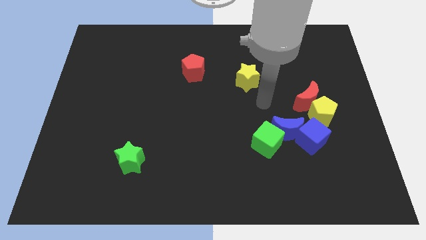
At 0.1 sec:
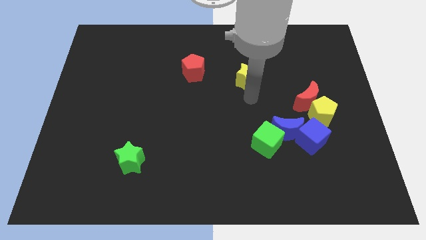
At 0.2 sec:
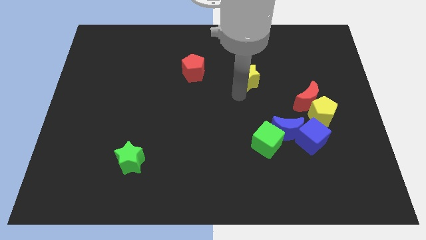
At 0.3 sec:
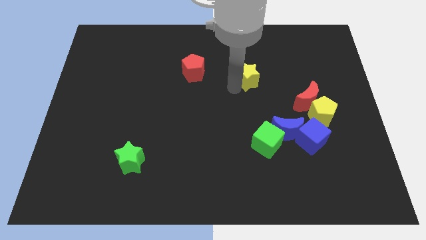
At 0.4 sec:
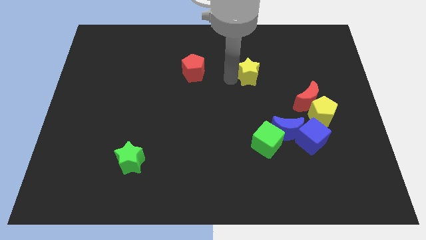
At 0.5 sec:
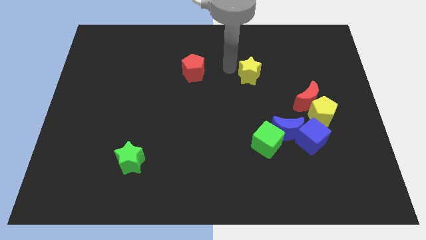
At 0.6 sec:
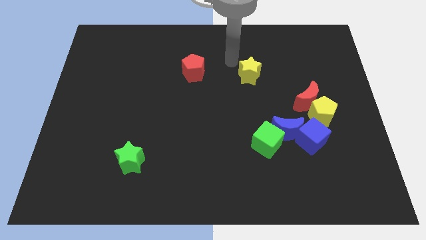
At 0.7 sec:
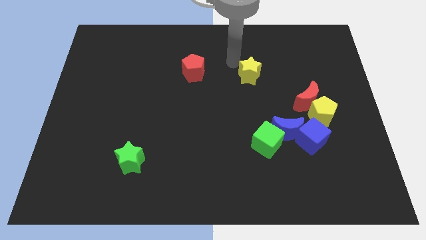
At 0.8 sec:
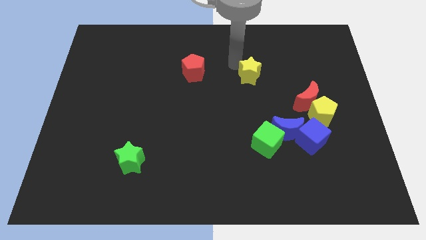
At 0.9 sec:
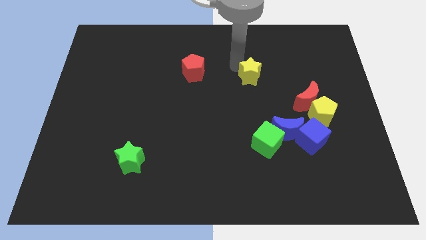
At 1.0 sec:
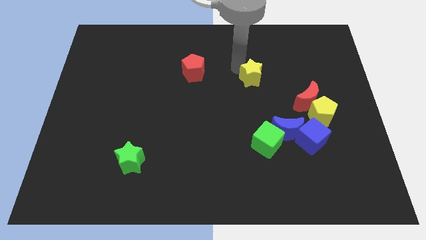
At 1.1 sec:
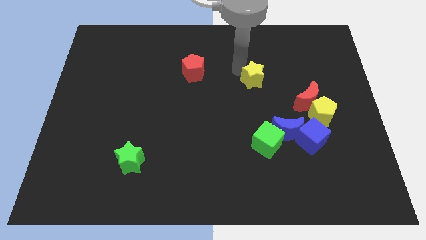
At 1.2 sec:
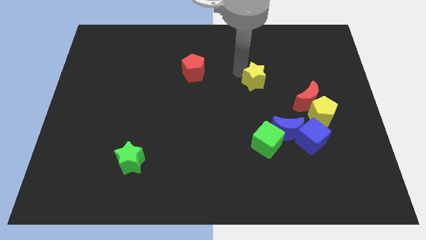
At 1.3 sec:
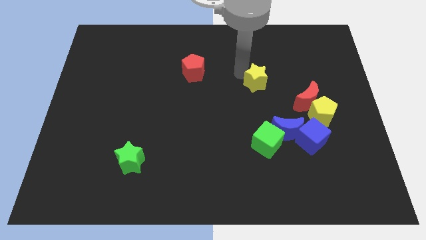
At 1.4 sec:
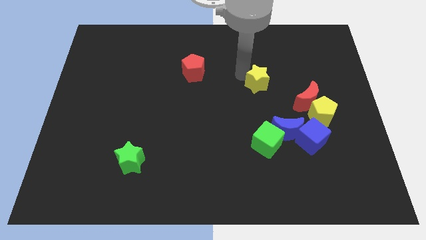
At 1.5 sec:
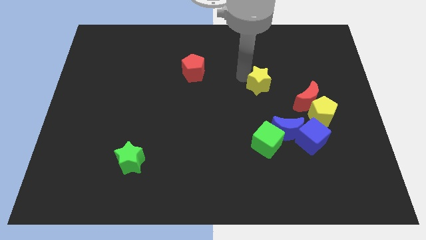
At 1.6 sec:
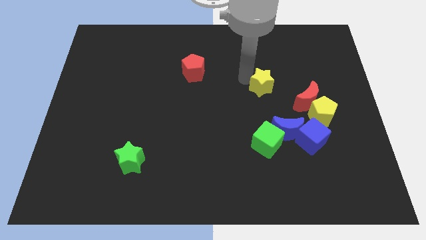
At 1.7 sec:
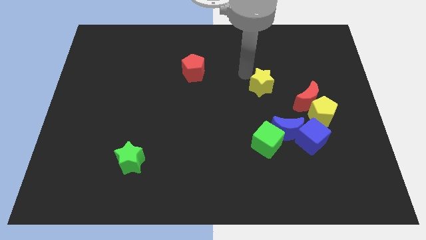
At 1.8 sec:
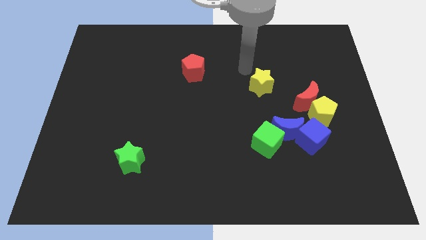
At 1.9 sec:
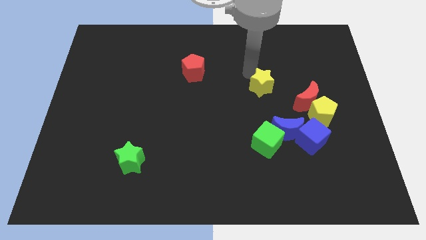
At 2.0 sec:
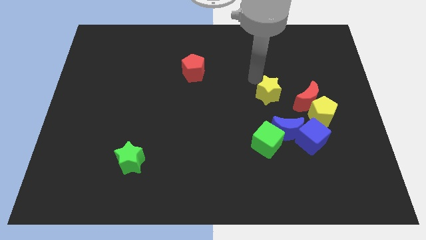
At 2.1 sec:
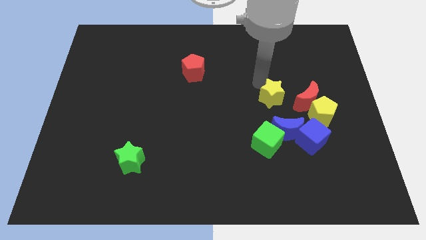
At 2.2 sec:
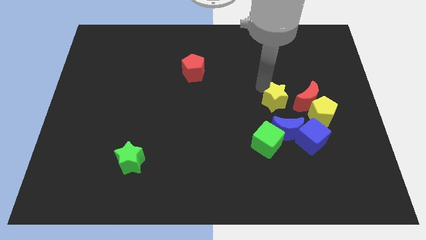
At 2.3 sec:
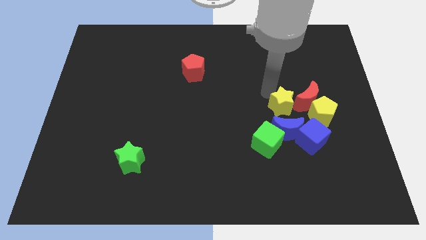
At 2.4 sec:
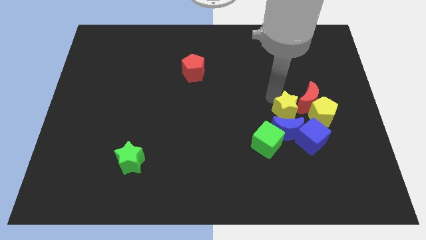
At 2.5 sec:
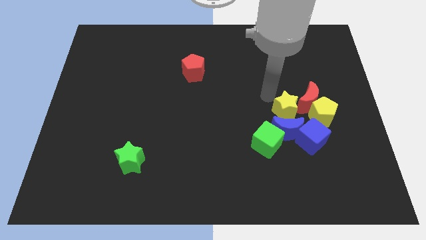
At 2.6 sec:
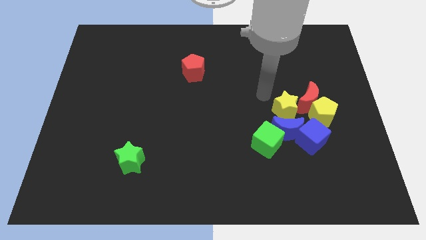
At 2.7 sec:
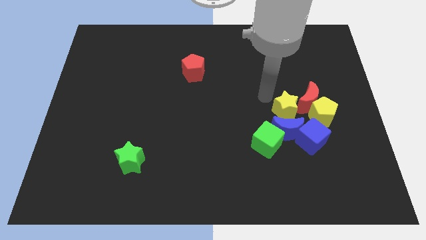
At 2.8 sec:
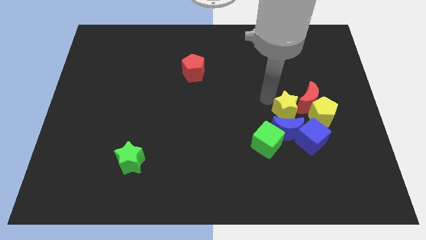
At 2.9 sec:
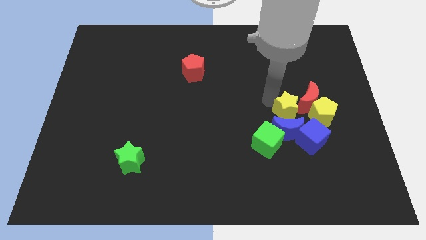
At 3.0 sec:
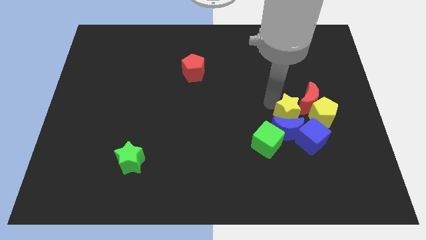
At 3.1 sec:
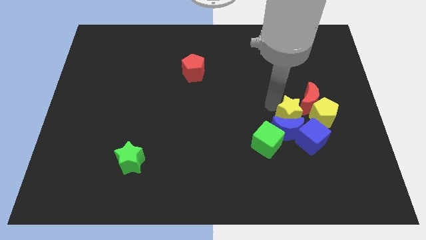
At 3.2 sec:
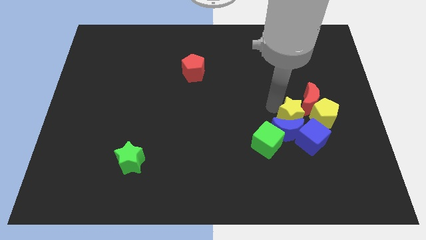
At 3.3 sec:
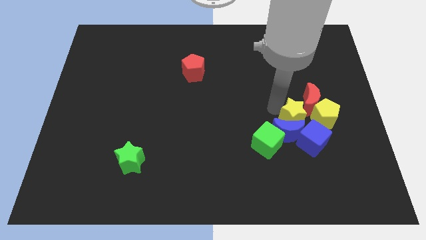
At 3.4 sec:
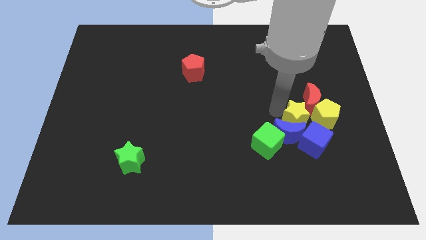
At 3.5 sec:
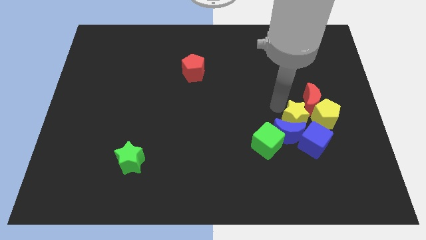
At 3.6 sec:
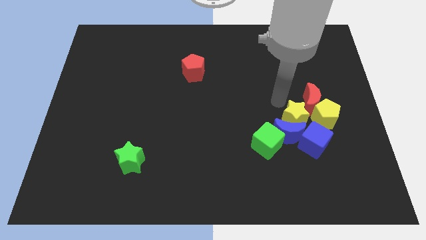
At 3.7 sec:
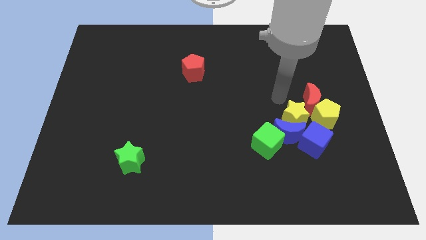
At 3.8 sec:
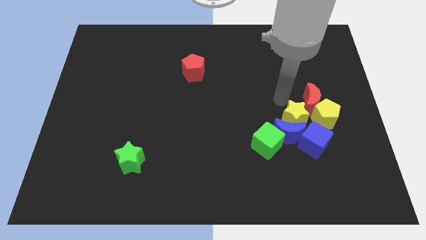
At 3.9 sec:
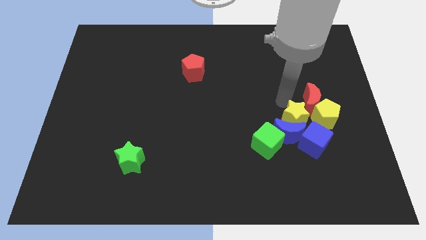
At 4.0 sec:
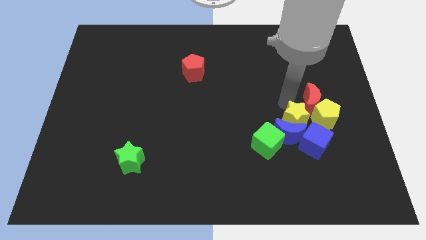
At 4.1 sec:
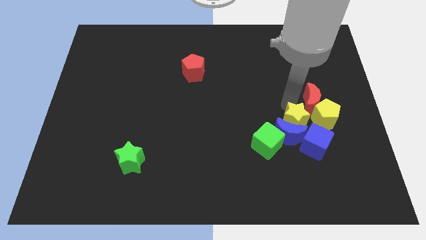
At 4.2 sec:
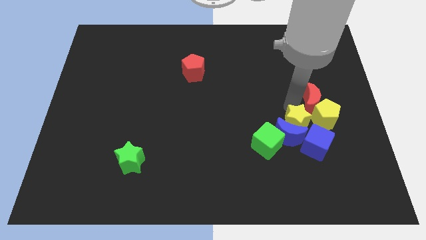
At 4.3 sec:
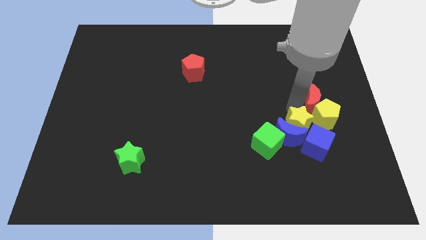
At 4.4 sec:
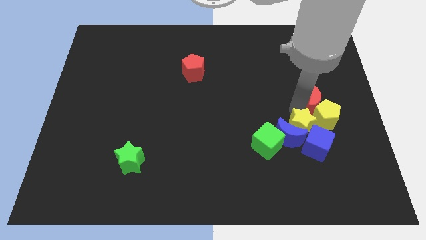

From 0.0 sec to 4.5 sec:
move the yellow star next to the blue cube

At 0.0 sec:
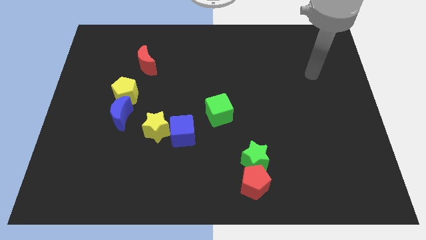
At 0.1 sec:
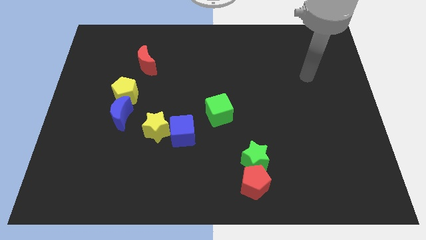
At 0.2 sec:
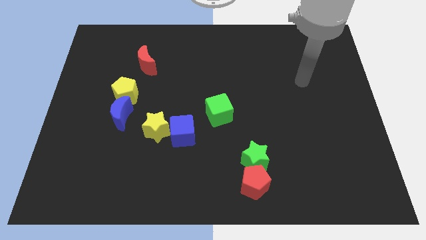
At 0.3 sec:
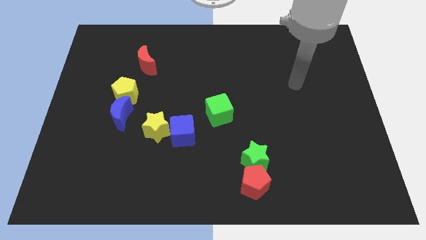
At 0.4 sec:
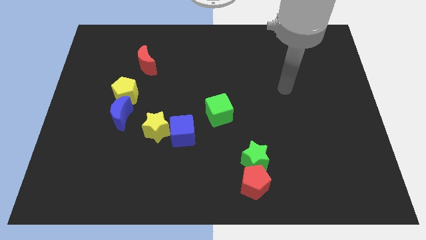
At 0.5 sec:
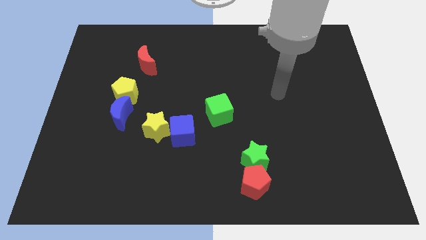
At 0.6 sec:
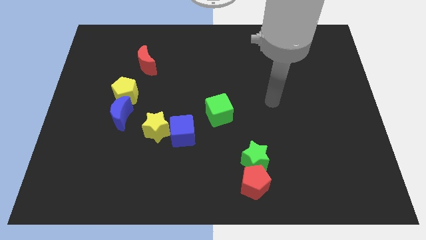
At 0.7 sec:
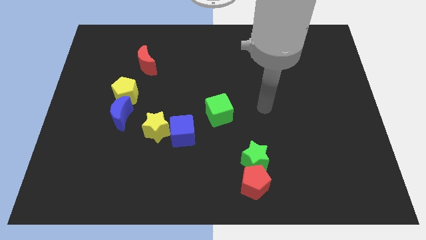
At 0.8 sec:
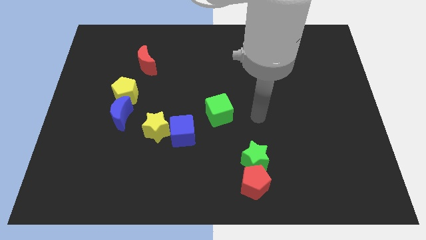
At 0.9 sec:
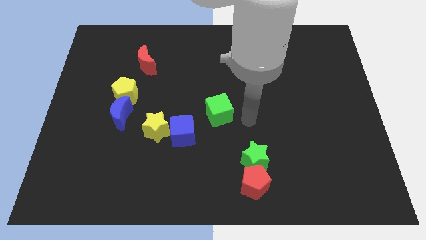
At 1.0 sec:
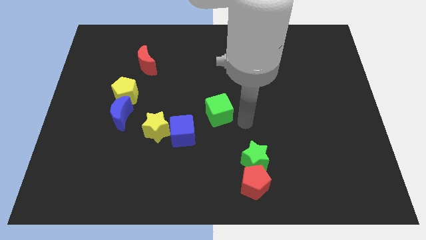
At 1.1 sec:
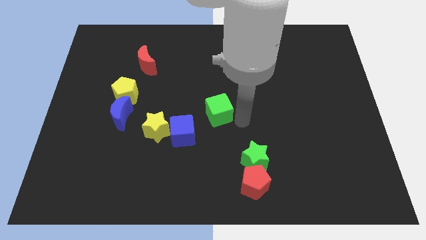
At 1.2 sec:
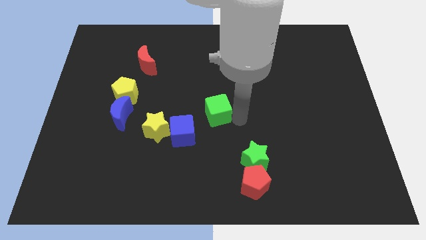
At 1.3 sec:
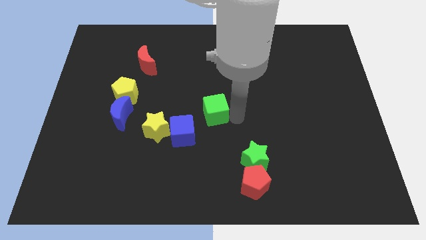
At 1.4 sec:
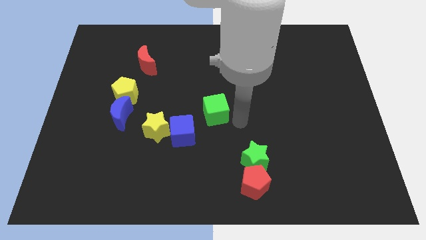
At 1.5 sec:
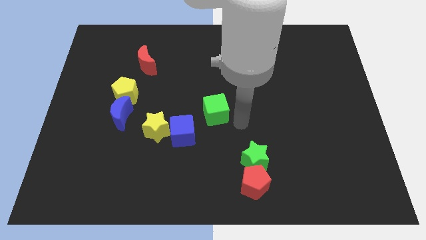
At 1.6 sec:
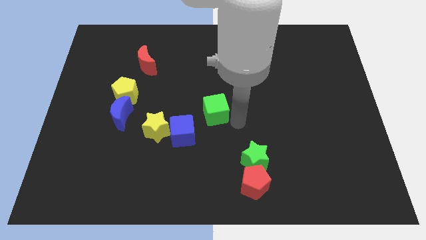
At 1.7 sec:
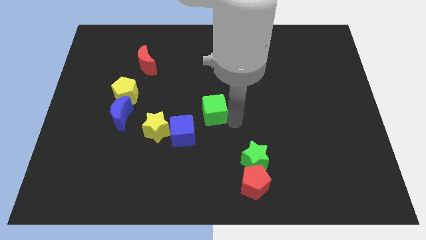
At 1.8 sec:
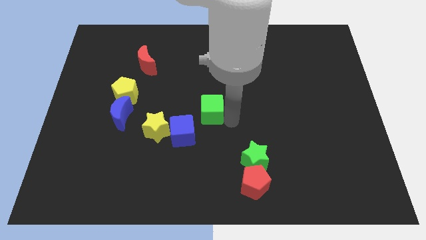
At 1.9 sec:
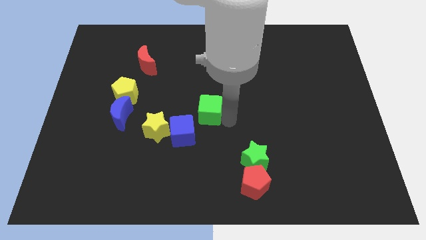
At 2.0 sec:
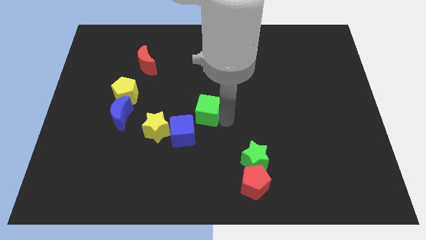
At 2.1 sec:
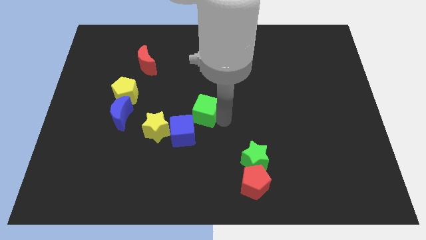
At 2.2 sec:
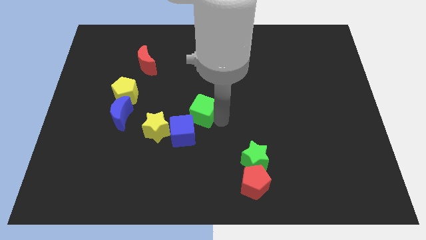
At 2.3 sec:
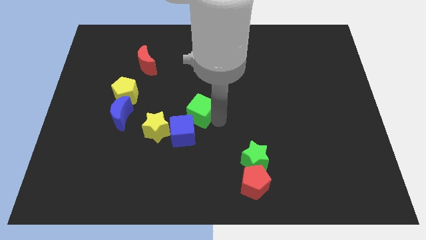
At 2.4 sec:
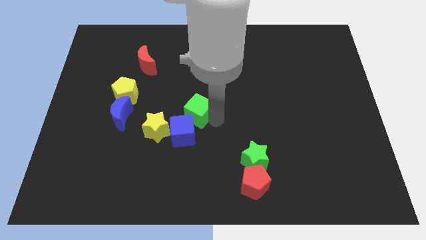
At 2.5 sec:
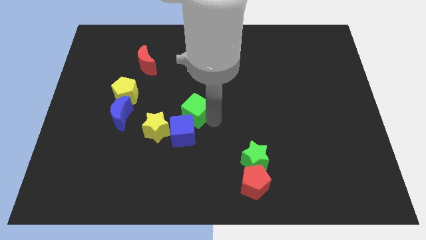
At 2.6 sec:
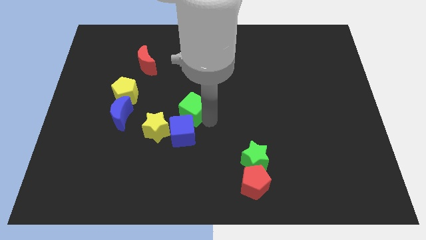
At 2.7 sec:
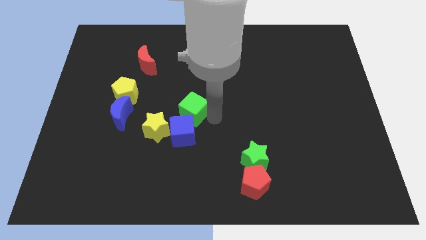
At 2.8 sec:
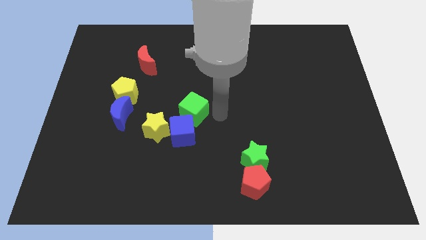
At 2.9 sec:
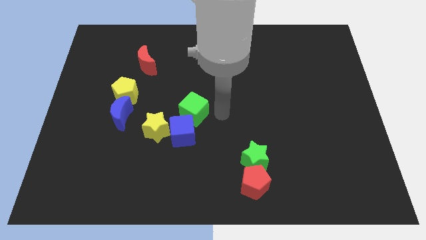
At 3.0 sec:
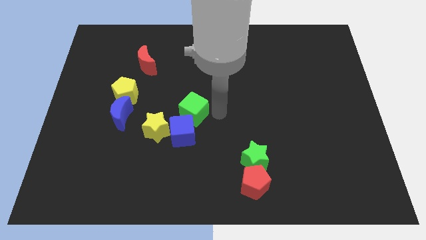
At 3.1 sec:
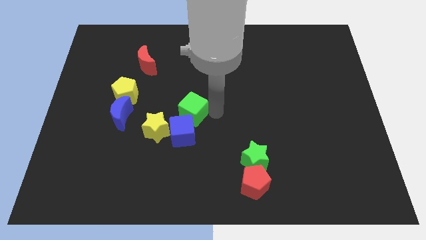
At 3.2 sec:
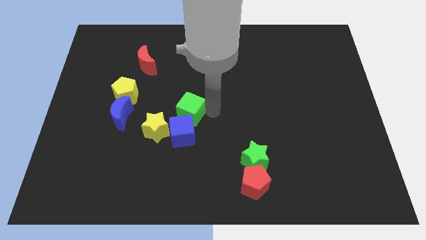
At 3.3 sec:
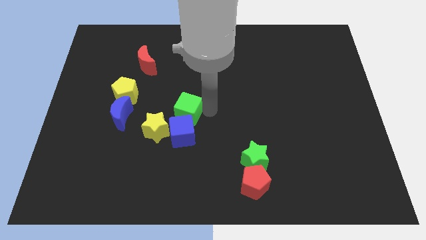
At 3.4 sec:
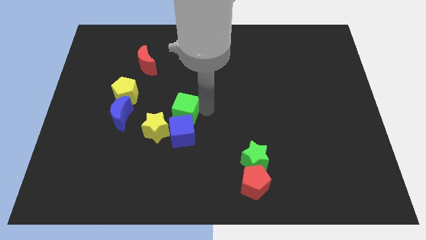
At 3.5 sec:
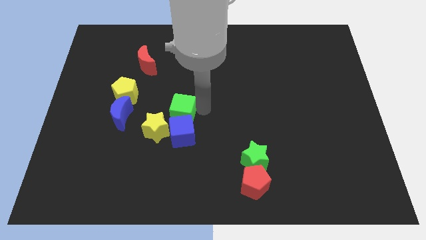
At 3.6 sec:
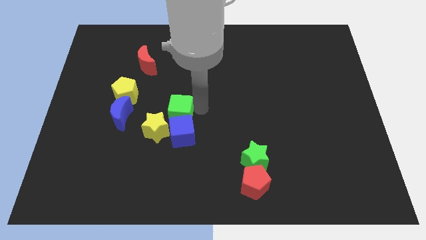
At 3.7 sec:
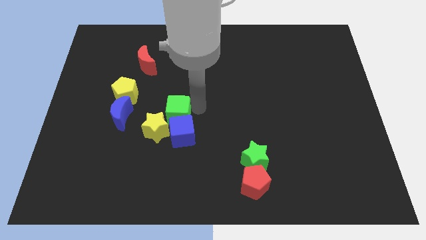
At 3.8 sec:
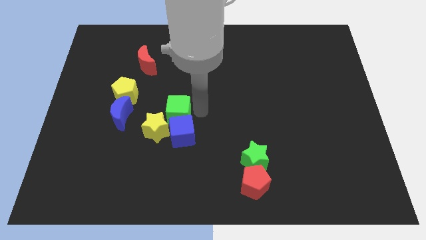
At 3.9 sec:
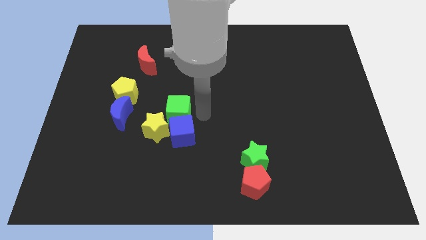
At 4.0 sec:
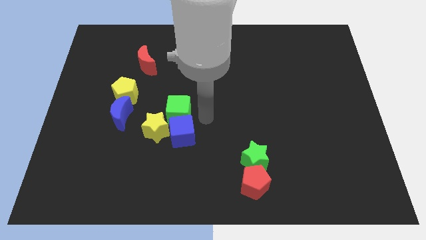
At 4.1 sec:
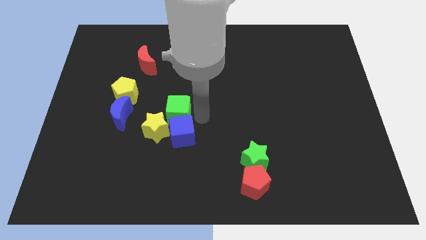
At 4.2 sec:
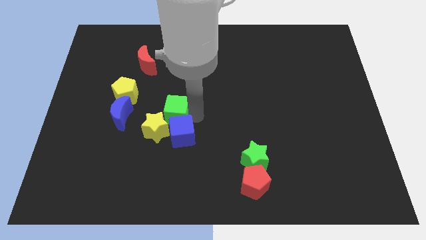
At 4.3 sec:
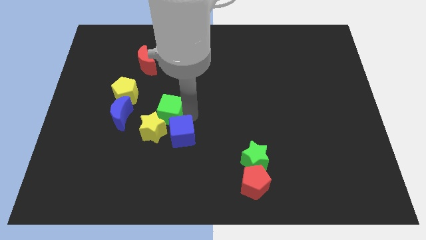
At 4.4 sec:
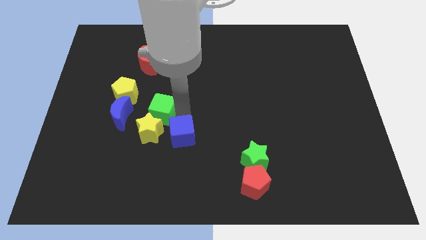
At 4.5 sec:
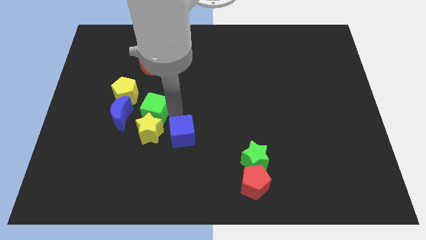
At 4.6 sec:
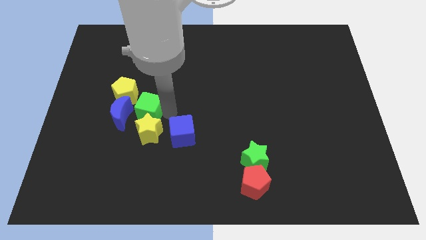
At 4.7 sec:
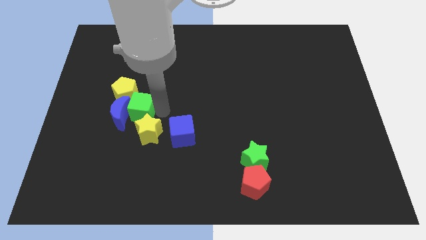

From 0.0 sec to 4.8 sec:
move the green cube next to the blue moon
